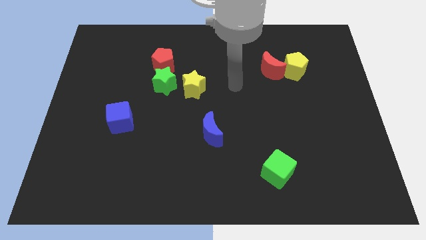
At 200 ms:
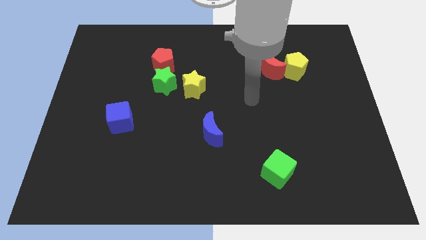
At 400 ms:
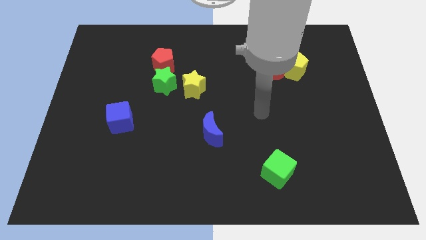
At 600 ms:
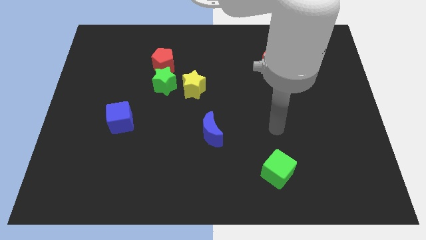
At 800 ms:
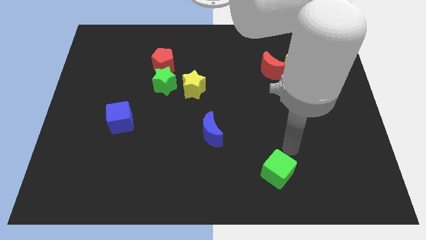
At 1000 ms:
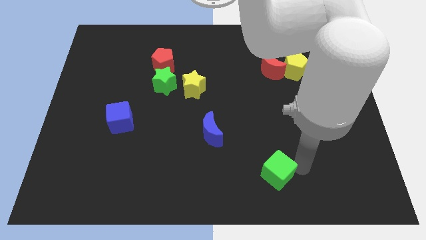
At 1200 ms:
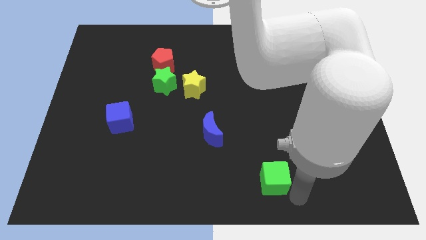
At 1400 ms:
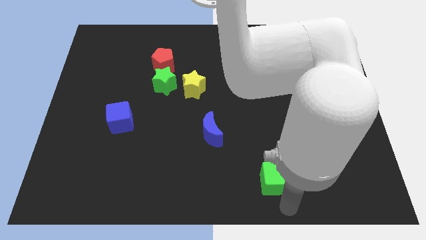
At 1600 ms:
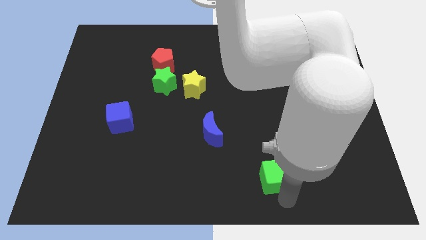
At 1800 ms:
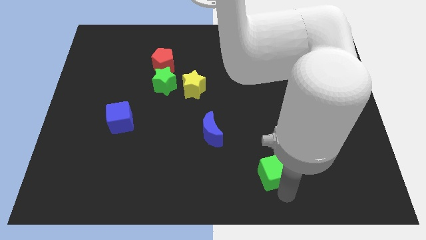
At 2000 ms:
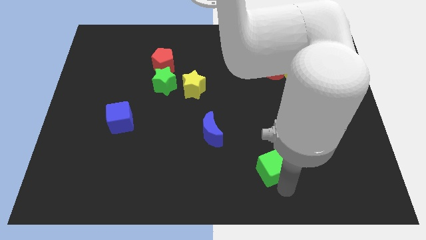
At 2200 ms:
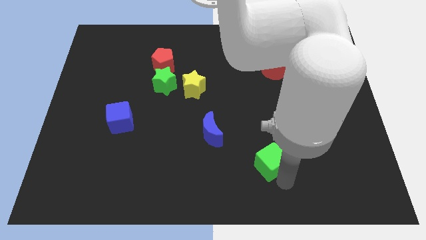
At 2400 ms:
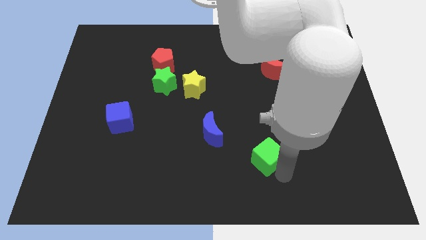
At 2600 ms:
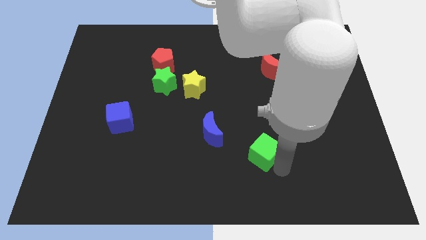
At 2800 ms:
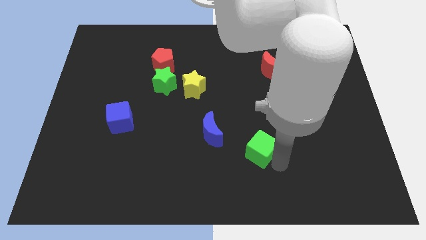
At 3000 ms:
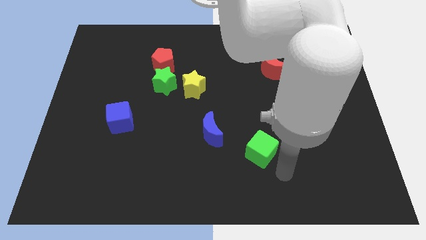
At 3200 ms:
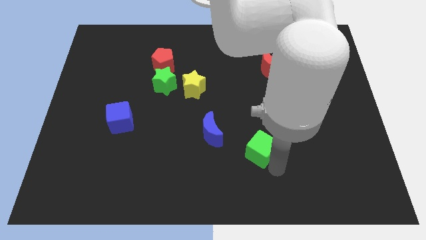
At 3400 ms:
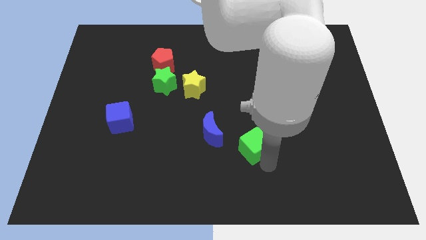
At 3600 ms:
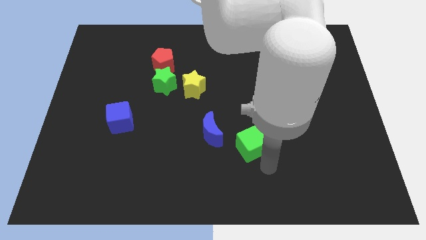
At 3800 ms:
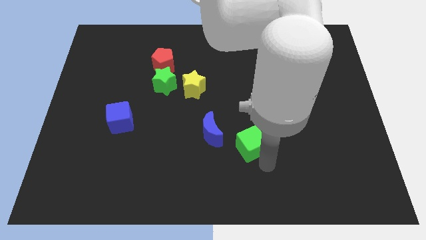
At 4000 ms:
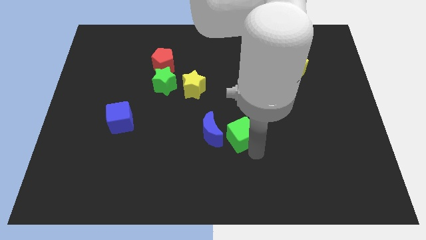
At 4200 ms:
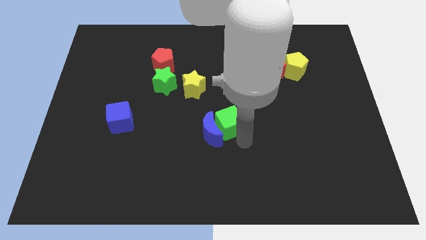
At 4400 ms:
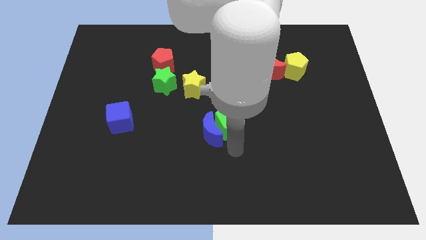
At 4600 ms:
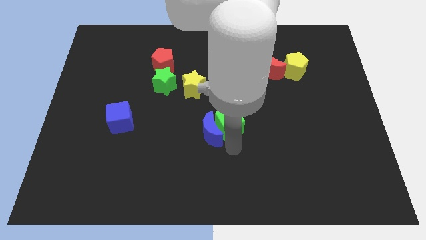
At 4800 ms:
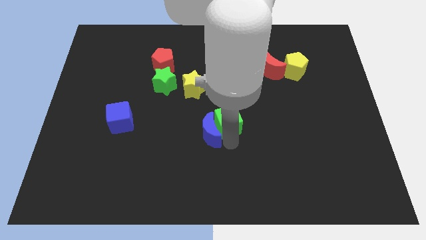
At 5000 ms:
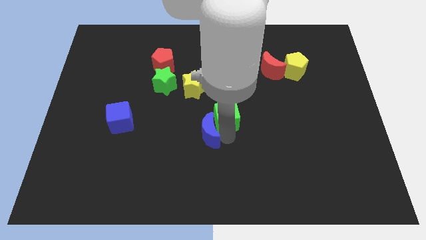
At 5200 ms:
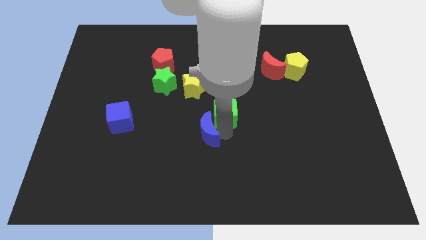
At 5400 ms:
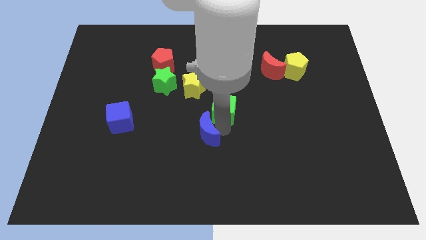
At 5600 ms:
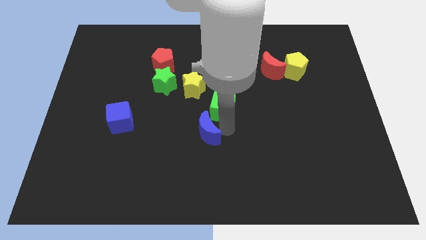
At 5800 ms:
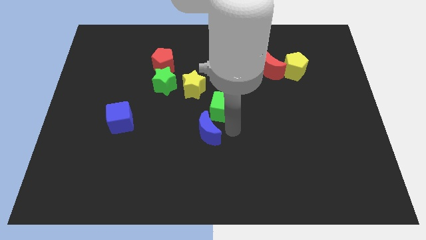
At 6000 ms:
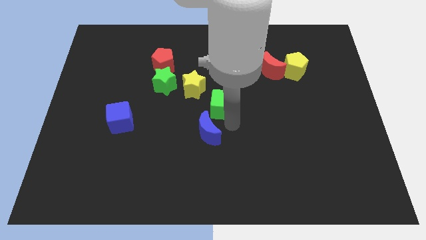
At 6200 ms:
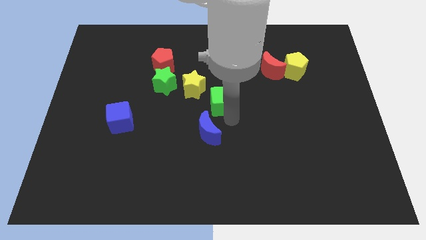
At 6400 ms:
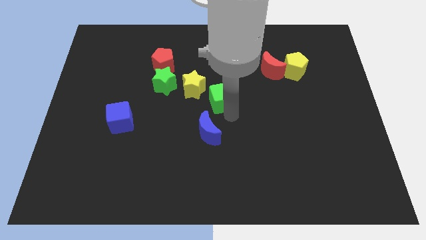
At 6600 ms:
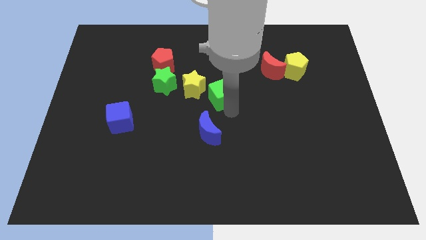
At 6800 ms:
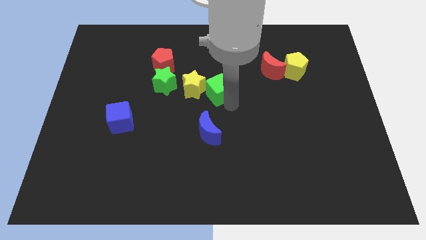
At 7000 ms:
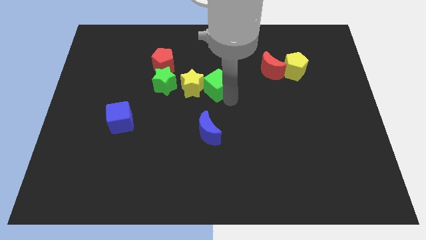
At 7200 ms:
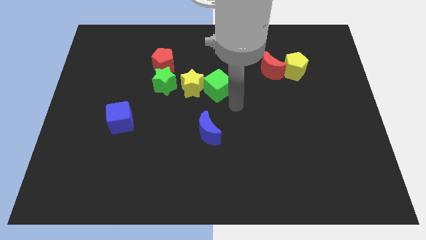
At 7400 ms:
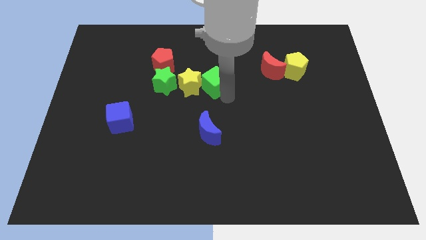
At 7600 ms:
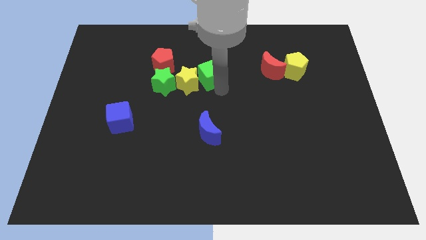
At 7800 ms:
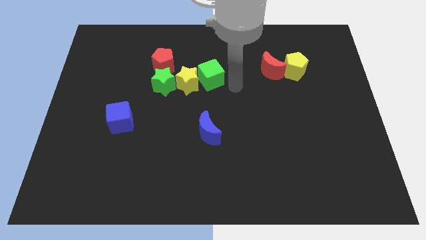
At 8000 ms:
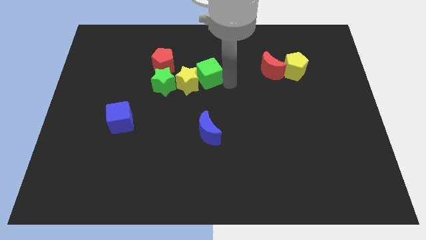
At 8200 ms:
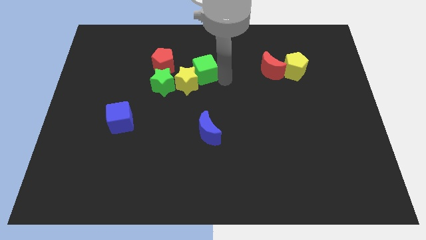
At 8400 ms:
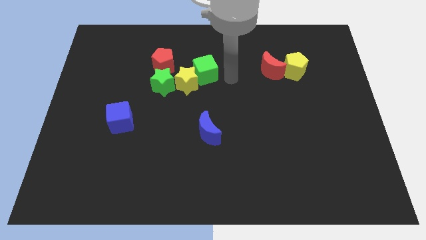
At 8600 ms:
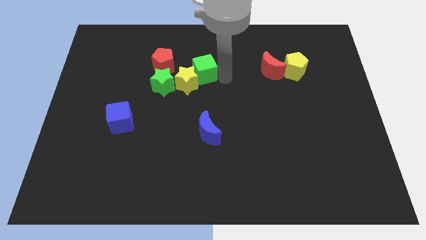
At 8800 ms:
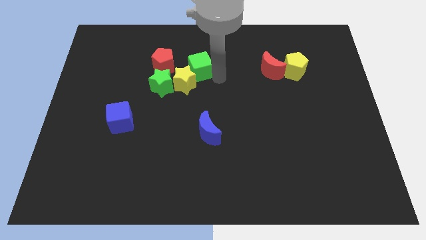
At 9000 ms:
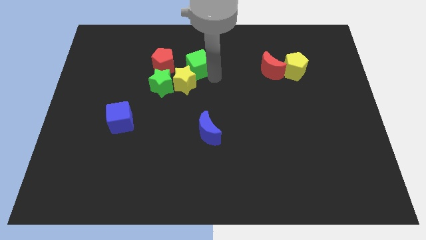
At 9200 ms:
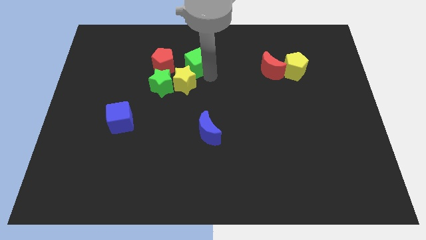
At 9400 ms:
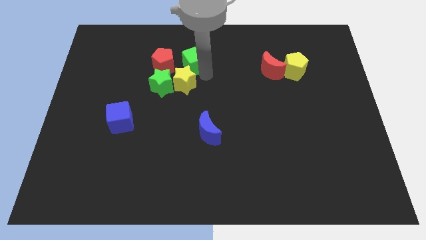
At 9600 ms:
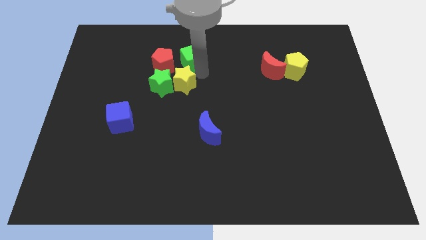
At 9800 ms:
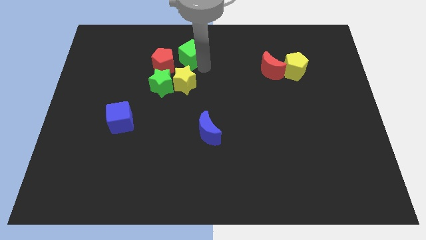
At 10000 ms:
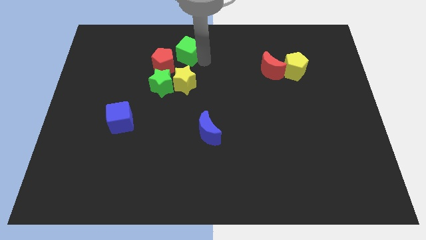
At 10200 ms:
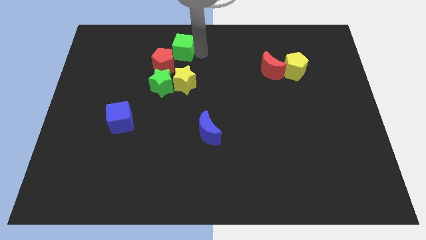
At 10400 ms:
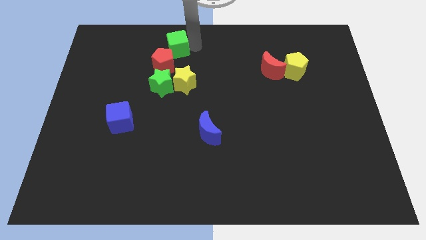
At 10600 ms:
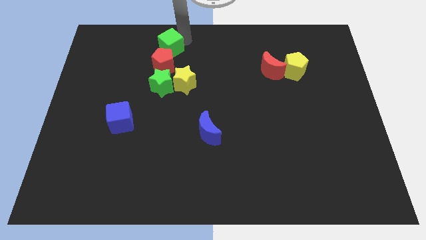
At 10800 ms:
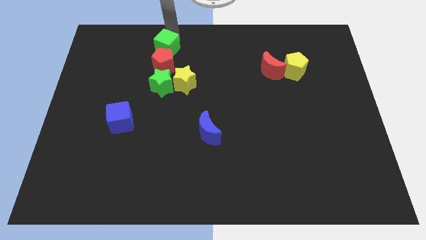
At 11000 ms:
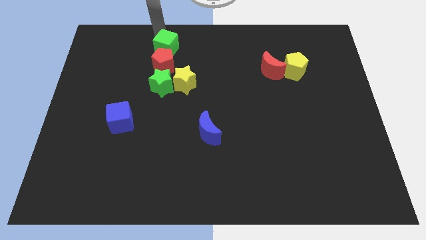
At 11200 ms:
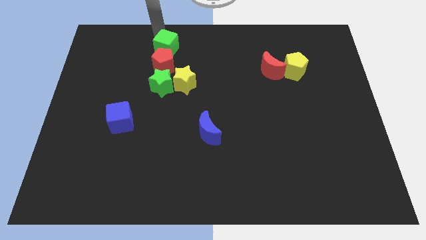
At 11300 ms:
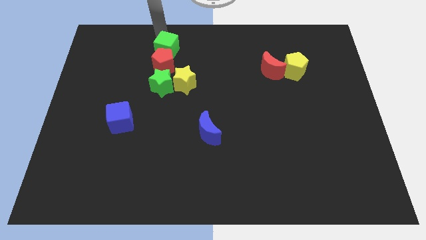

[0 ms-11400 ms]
push the green cube to the red pentagon

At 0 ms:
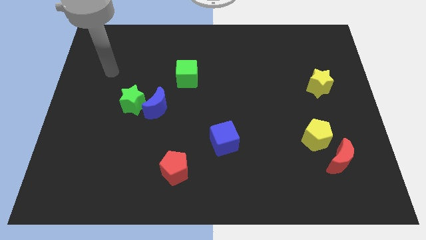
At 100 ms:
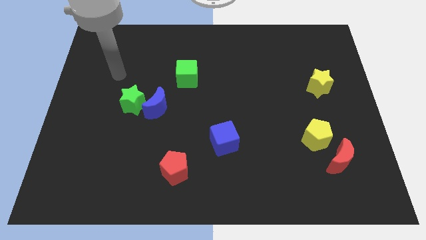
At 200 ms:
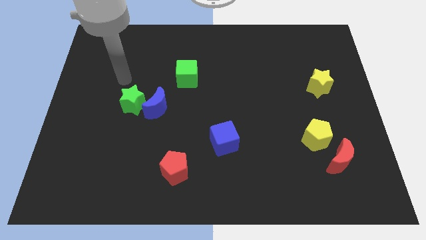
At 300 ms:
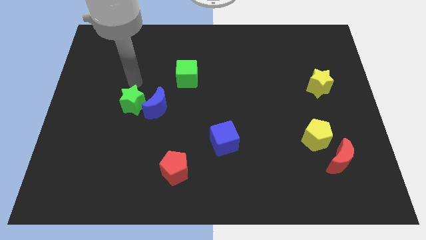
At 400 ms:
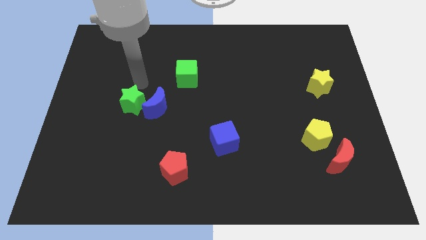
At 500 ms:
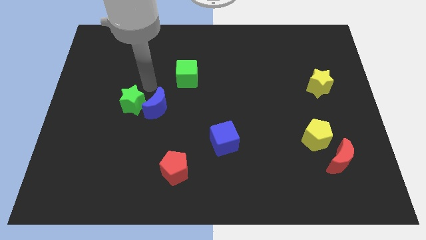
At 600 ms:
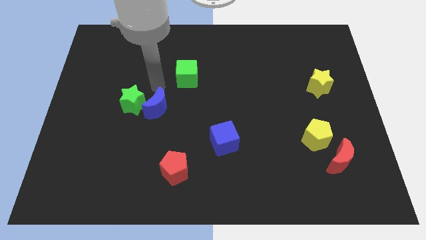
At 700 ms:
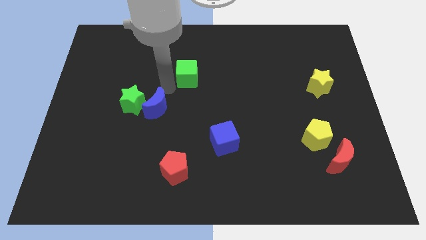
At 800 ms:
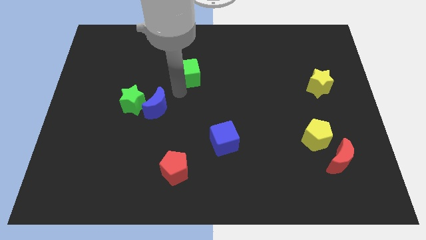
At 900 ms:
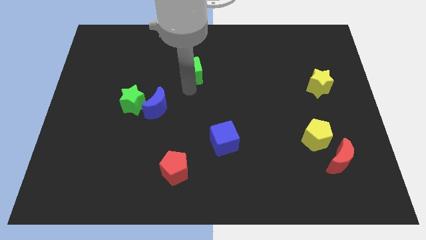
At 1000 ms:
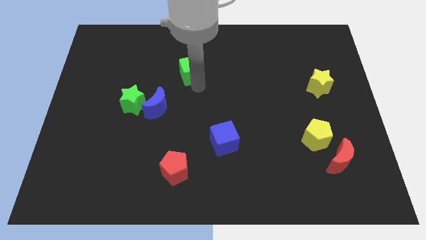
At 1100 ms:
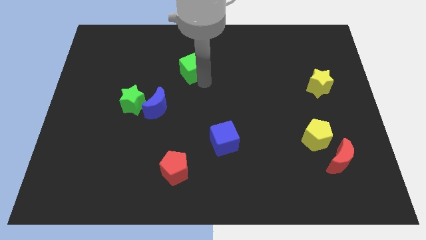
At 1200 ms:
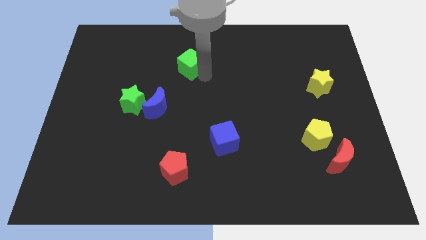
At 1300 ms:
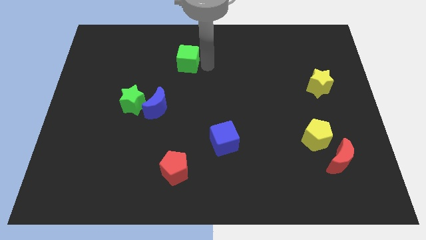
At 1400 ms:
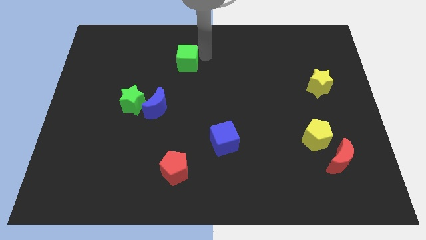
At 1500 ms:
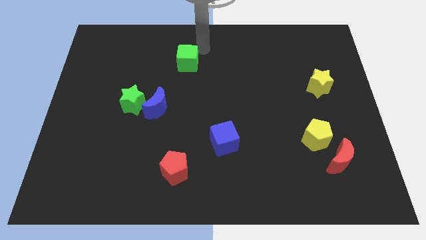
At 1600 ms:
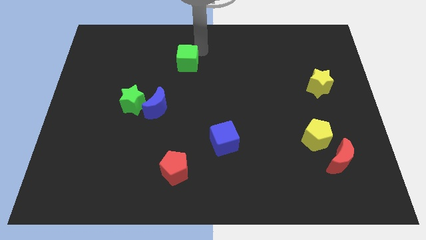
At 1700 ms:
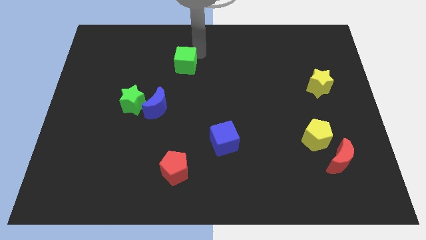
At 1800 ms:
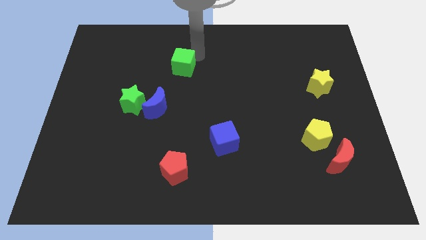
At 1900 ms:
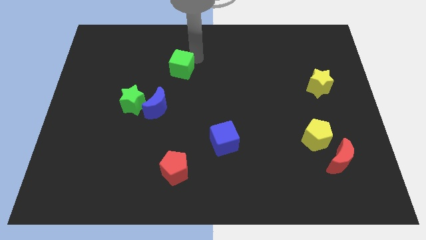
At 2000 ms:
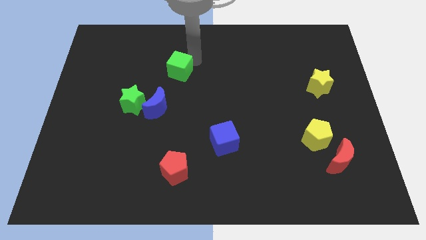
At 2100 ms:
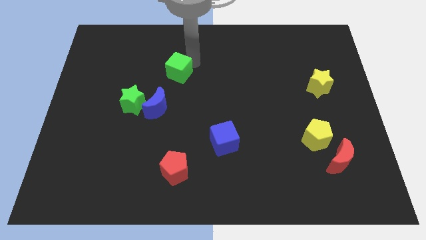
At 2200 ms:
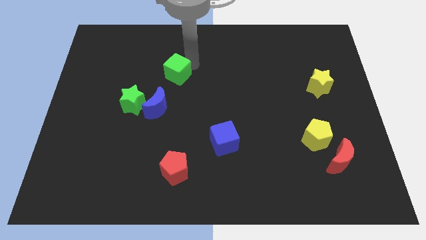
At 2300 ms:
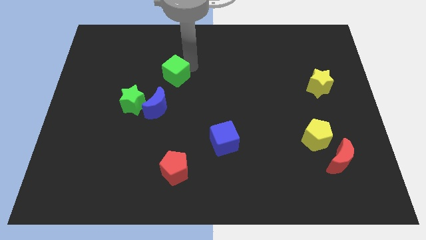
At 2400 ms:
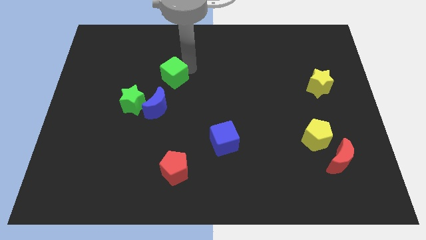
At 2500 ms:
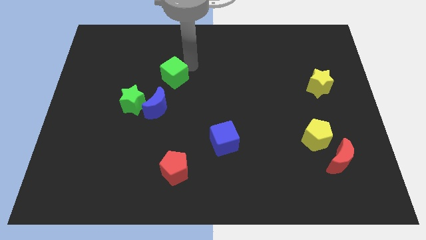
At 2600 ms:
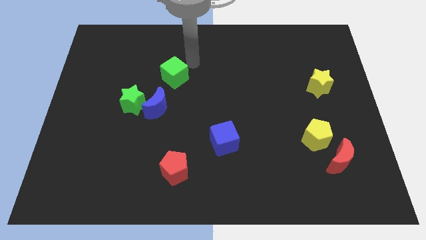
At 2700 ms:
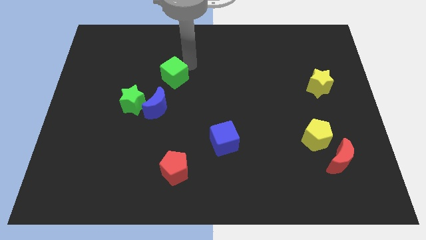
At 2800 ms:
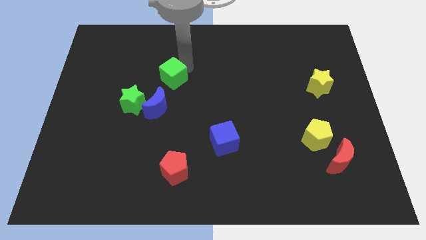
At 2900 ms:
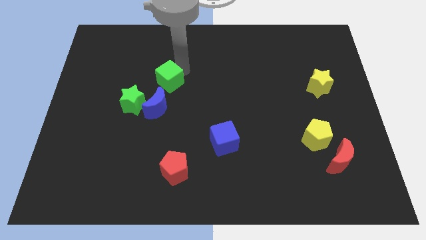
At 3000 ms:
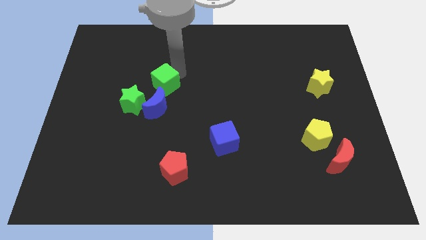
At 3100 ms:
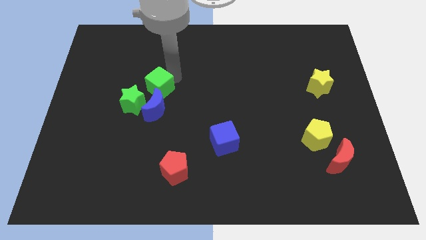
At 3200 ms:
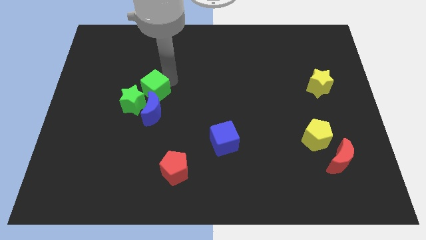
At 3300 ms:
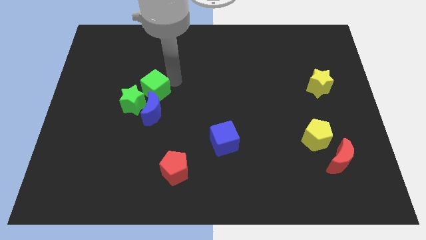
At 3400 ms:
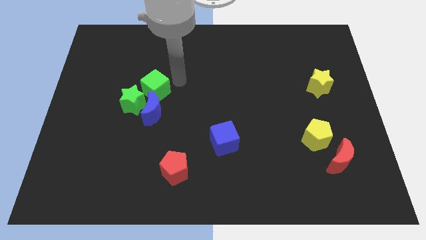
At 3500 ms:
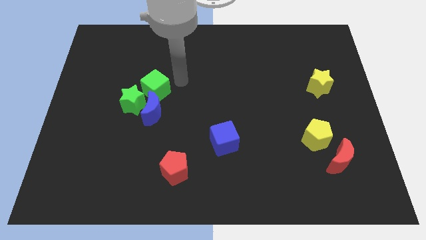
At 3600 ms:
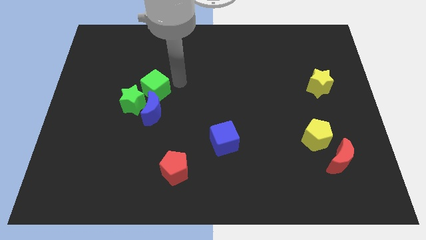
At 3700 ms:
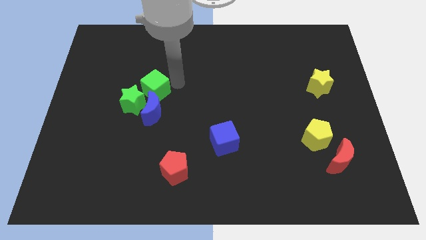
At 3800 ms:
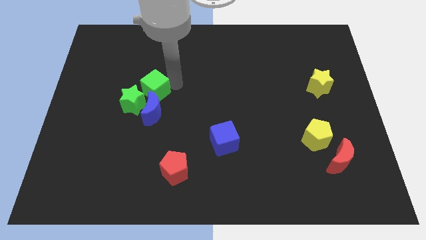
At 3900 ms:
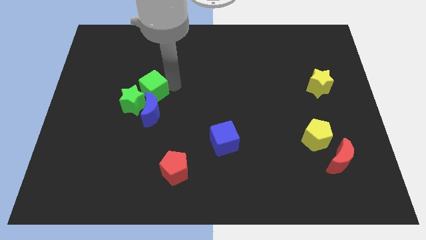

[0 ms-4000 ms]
push the green cube next to the green star
